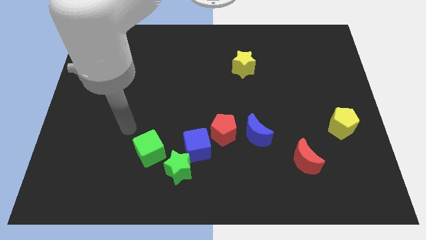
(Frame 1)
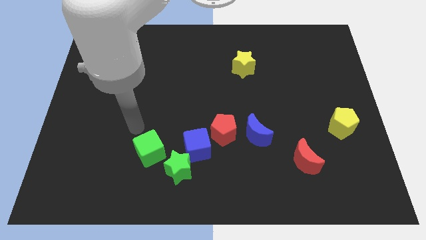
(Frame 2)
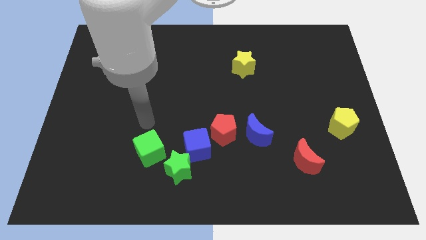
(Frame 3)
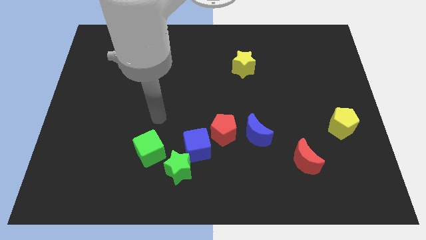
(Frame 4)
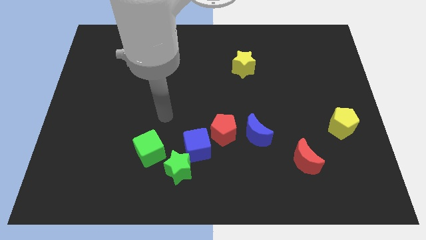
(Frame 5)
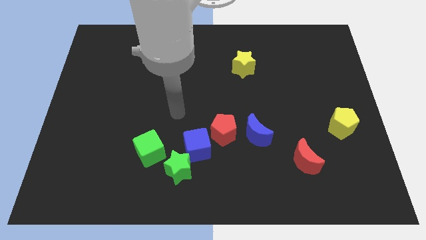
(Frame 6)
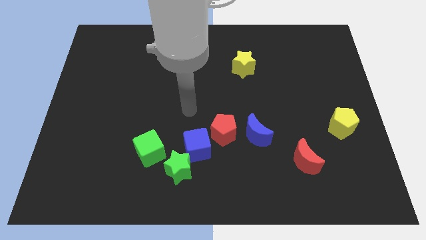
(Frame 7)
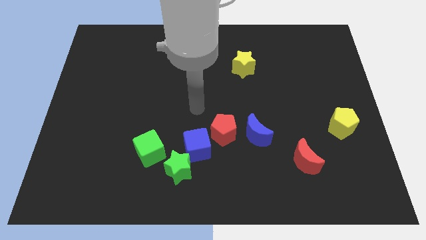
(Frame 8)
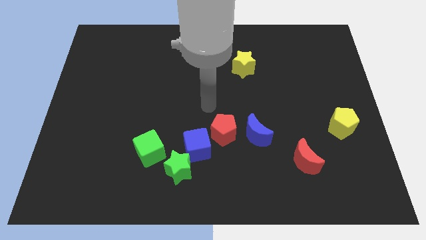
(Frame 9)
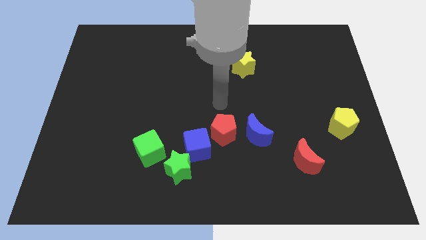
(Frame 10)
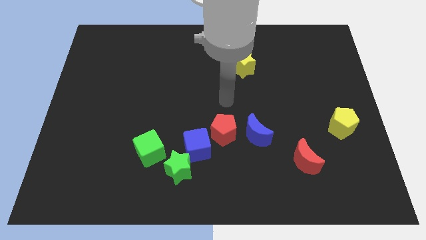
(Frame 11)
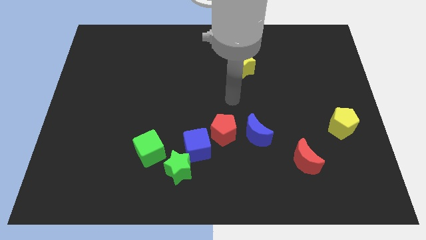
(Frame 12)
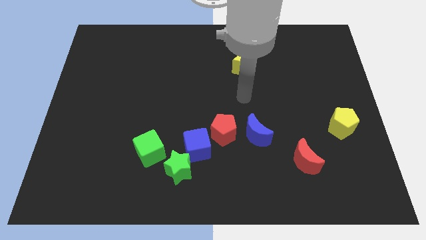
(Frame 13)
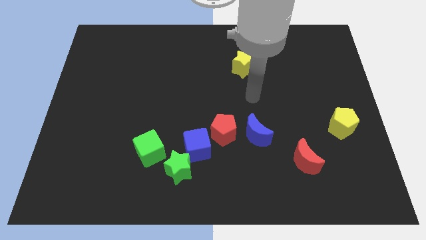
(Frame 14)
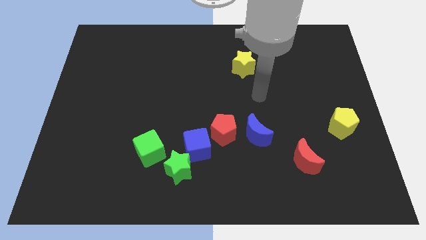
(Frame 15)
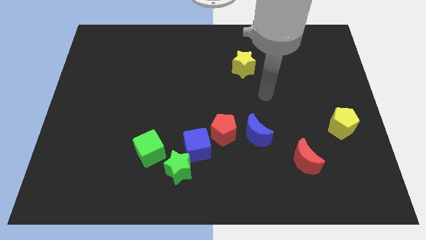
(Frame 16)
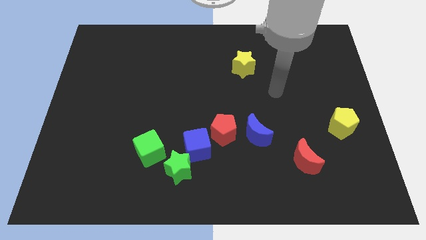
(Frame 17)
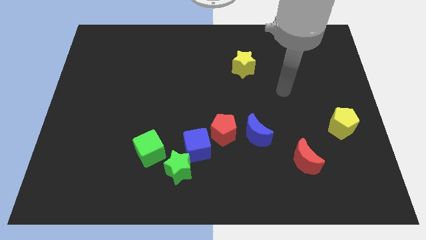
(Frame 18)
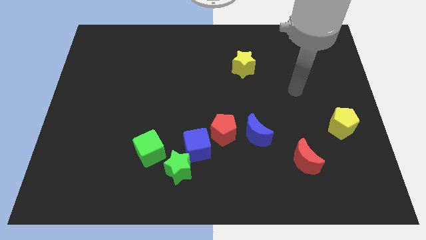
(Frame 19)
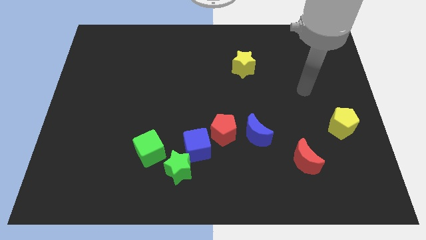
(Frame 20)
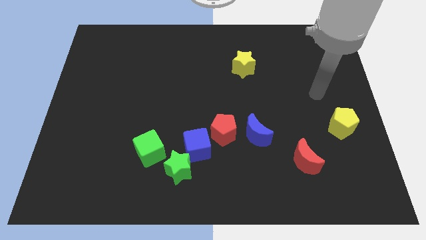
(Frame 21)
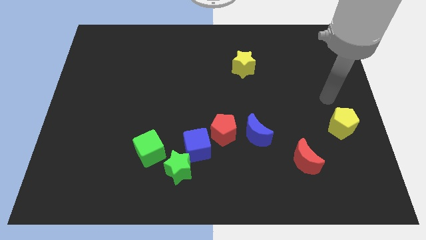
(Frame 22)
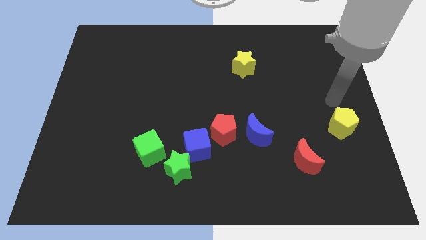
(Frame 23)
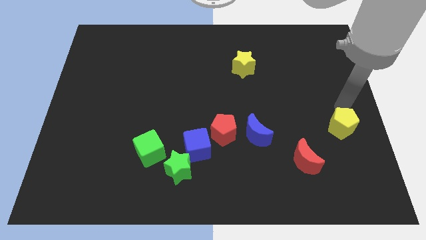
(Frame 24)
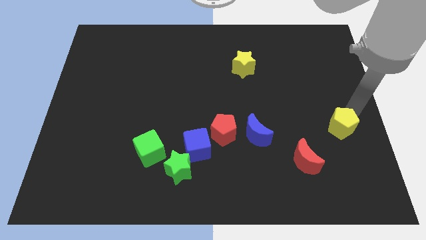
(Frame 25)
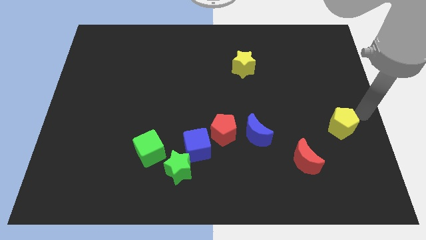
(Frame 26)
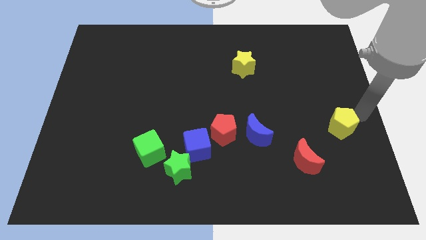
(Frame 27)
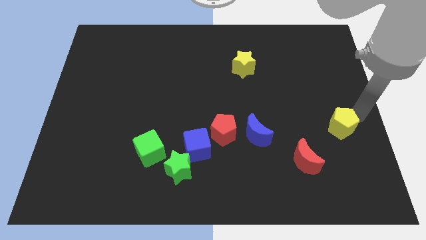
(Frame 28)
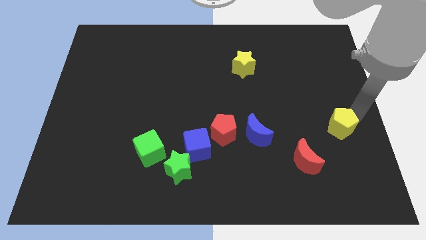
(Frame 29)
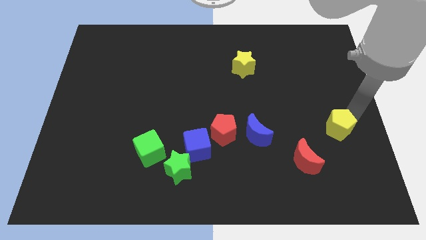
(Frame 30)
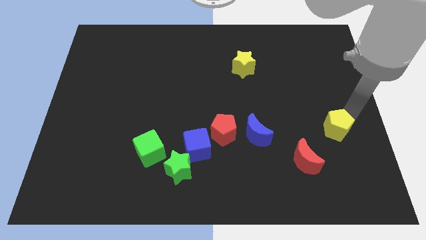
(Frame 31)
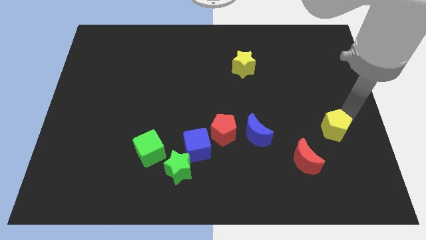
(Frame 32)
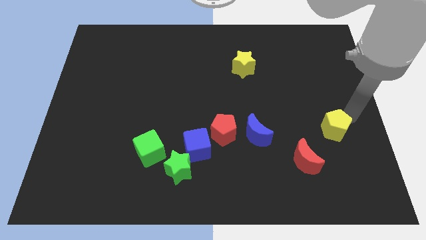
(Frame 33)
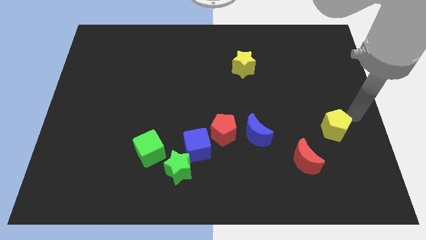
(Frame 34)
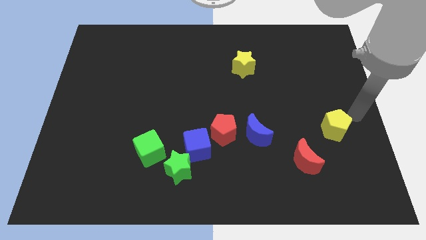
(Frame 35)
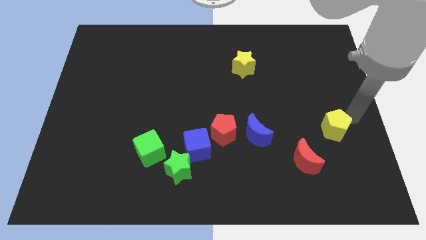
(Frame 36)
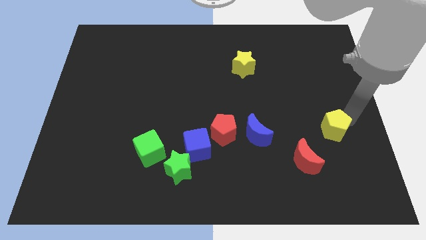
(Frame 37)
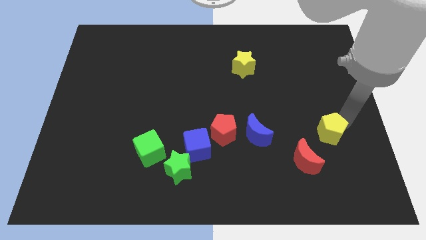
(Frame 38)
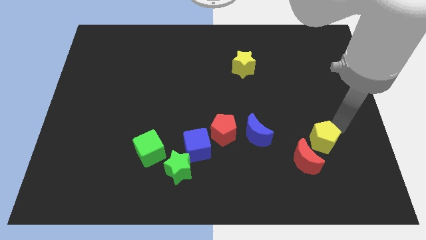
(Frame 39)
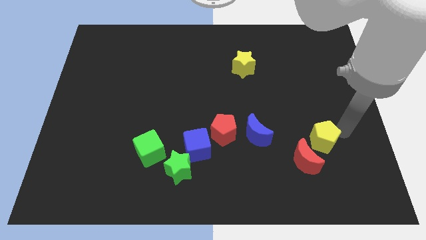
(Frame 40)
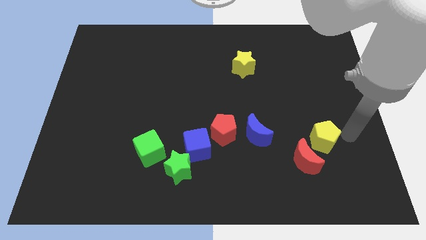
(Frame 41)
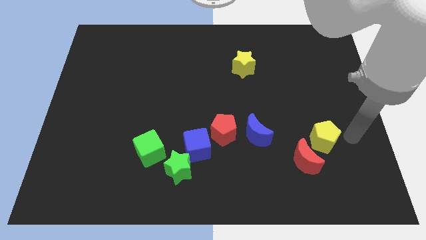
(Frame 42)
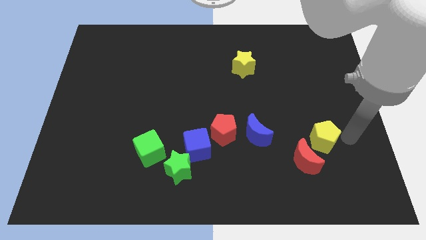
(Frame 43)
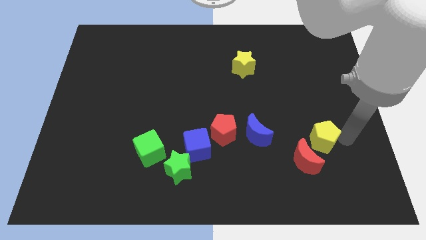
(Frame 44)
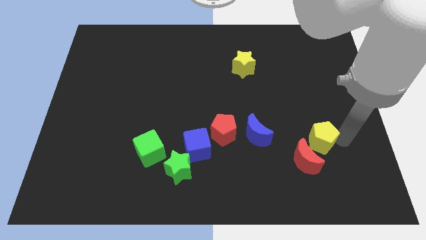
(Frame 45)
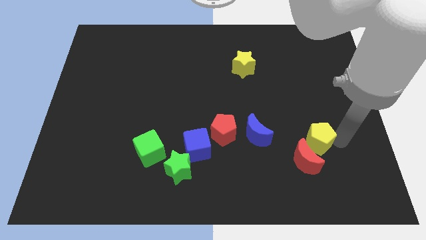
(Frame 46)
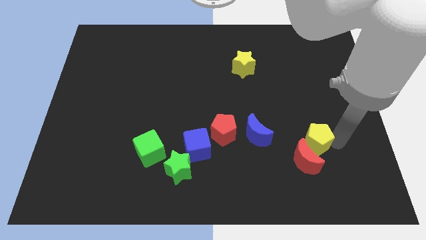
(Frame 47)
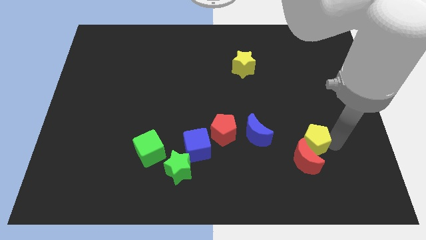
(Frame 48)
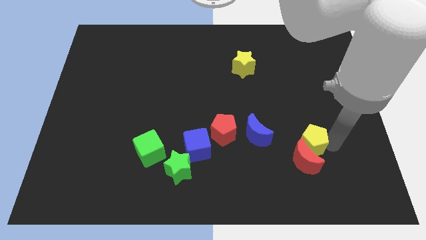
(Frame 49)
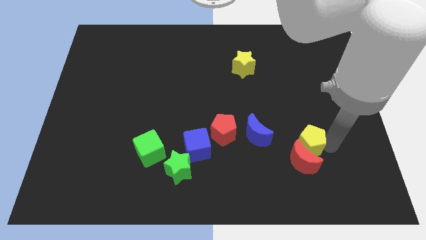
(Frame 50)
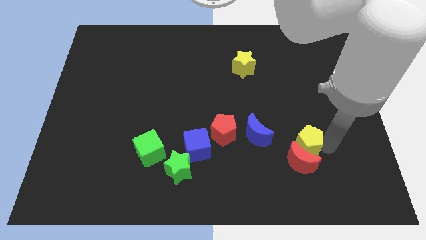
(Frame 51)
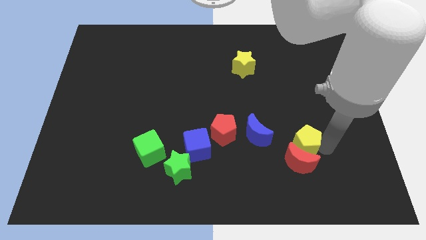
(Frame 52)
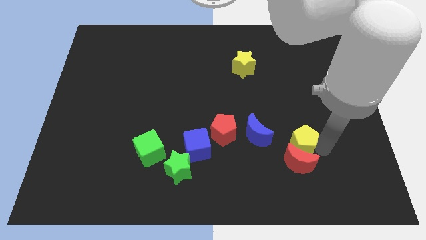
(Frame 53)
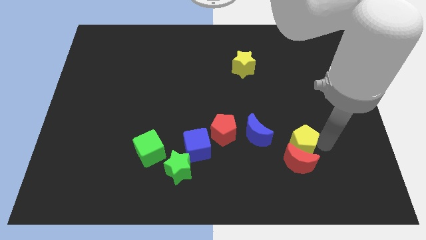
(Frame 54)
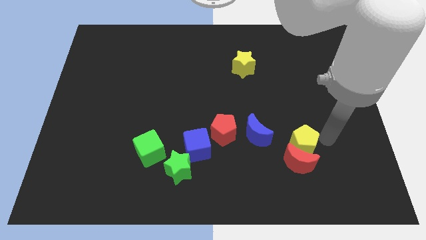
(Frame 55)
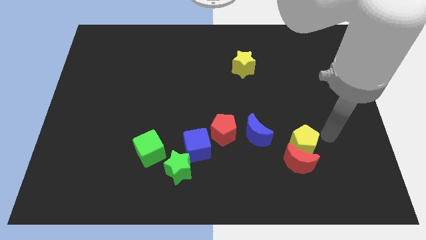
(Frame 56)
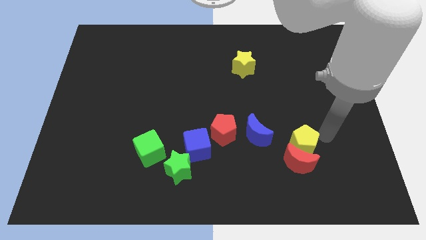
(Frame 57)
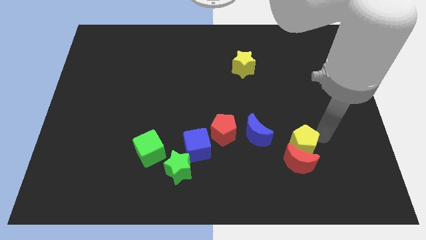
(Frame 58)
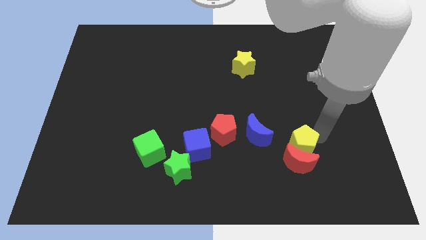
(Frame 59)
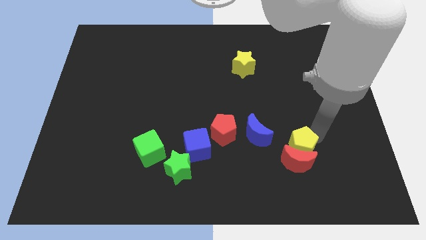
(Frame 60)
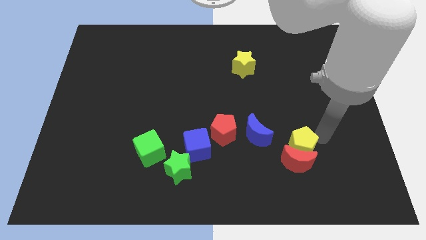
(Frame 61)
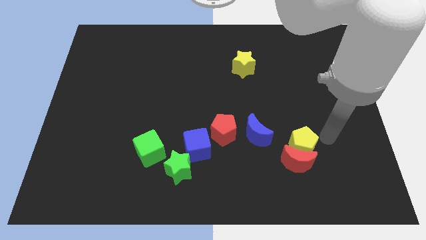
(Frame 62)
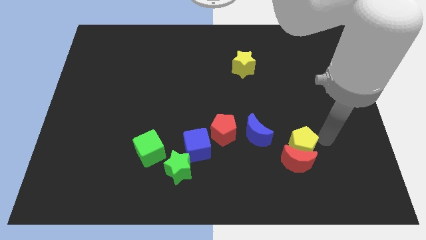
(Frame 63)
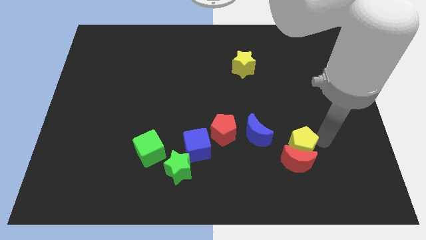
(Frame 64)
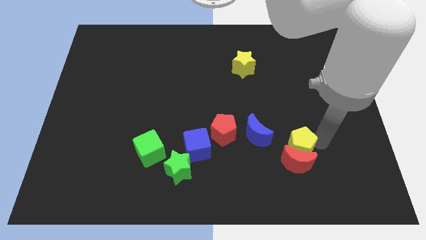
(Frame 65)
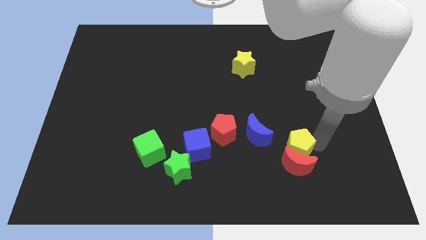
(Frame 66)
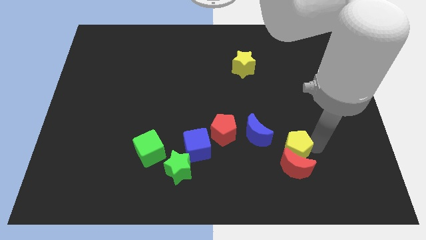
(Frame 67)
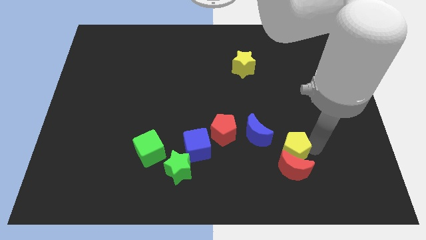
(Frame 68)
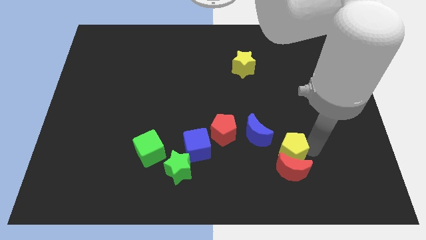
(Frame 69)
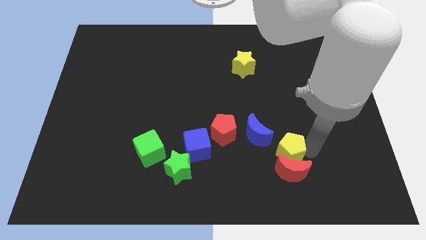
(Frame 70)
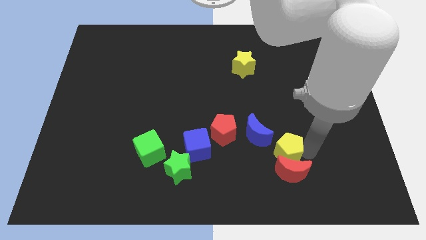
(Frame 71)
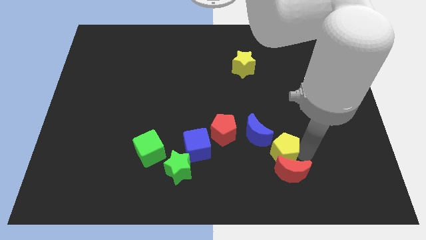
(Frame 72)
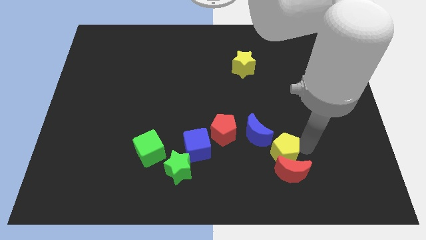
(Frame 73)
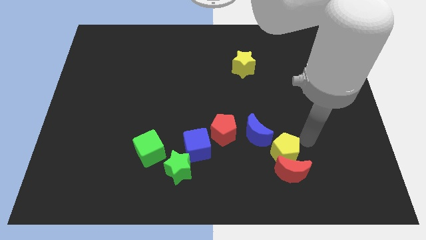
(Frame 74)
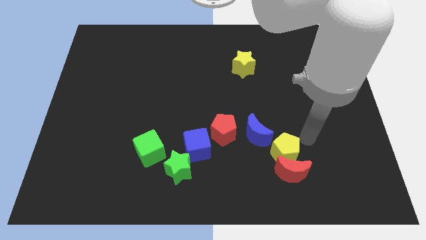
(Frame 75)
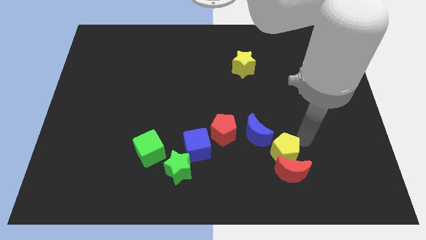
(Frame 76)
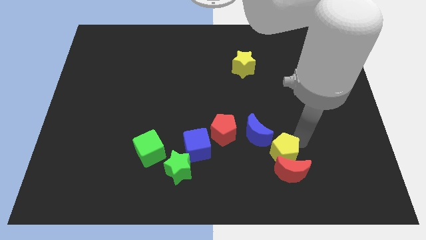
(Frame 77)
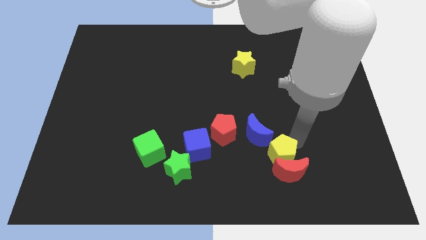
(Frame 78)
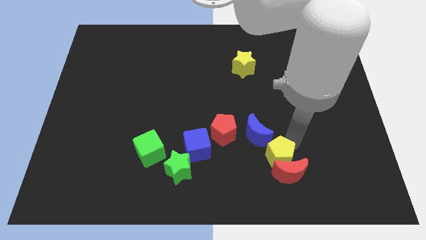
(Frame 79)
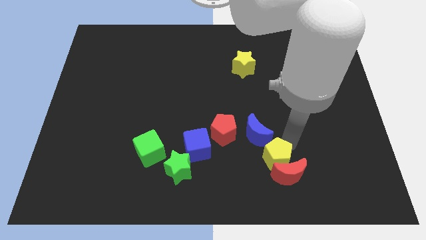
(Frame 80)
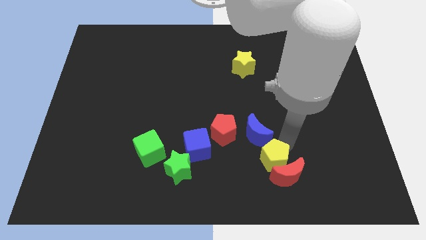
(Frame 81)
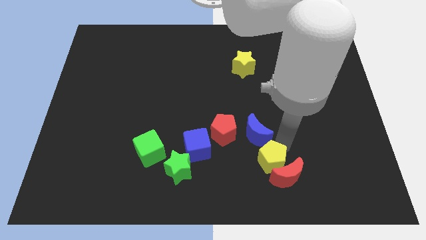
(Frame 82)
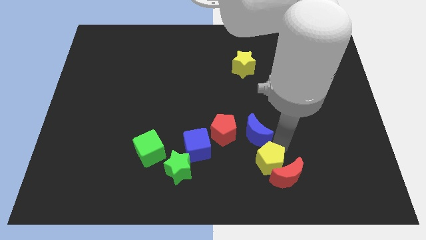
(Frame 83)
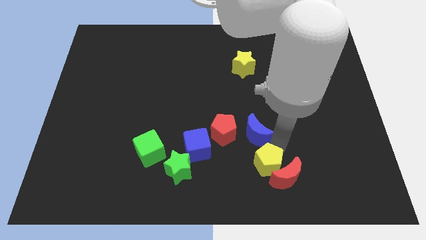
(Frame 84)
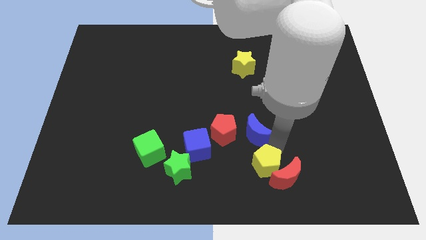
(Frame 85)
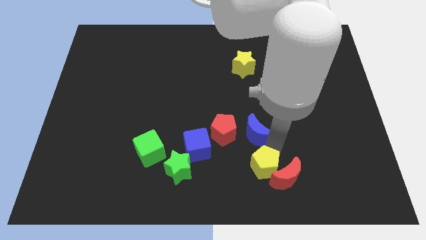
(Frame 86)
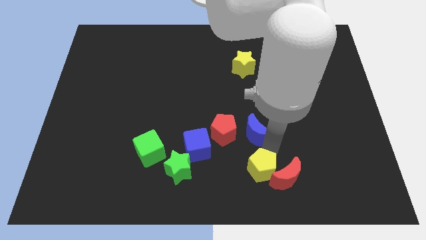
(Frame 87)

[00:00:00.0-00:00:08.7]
slide the yellow pentagon to the bottom side
